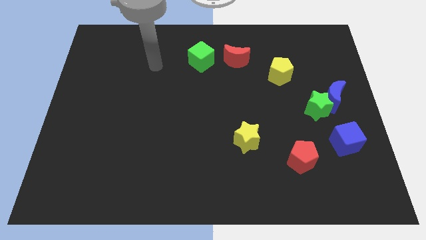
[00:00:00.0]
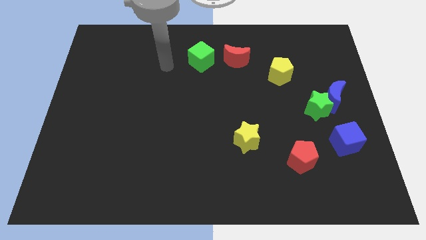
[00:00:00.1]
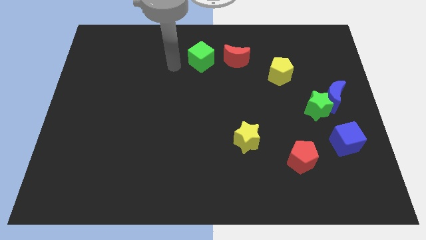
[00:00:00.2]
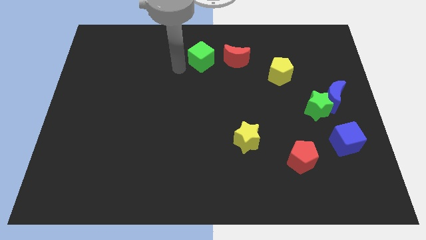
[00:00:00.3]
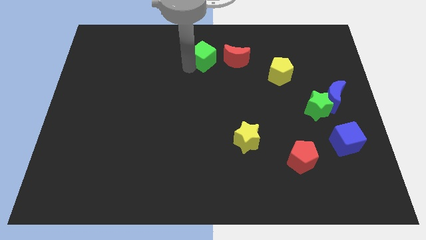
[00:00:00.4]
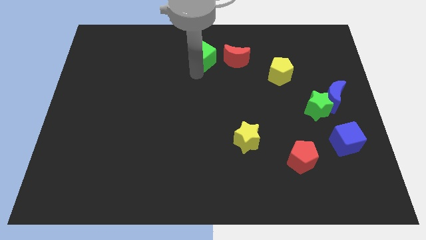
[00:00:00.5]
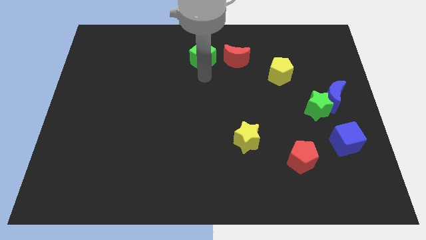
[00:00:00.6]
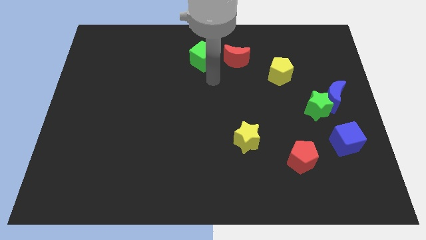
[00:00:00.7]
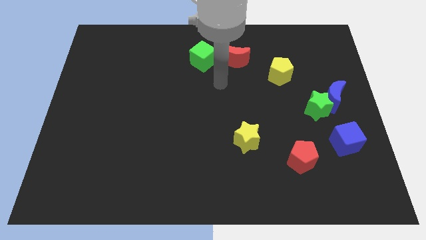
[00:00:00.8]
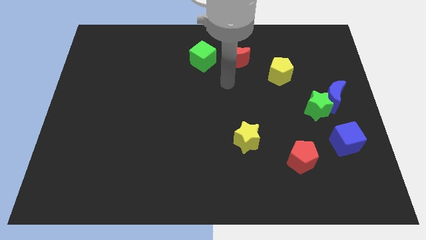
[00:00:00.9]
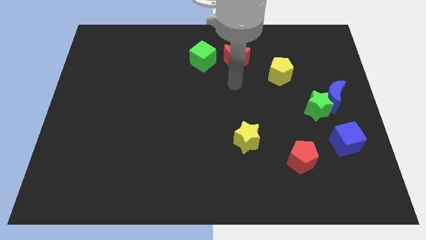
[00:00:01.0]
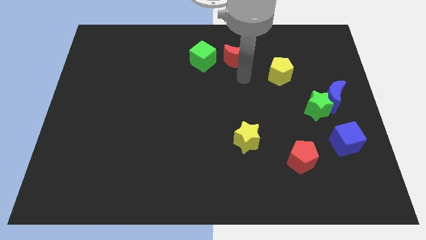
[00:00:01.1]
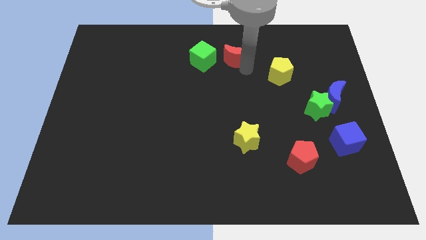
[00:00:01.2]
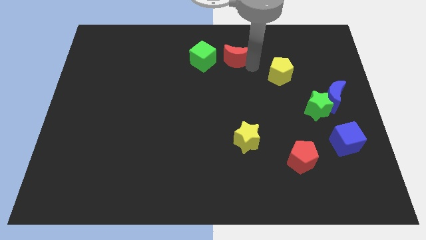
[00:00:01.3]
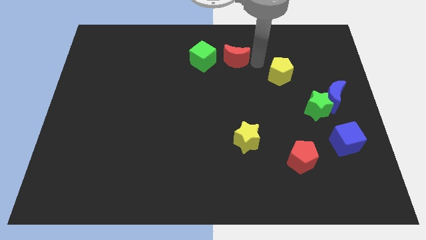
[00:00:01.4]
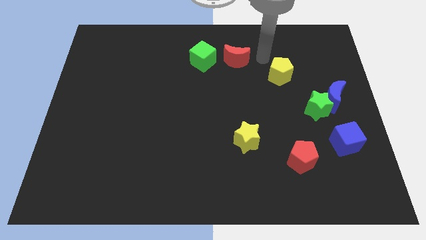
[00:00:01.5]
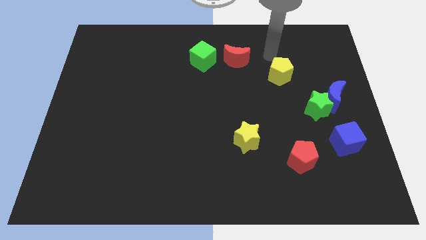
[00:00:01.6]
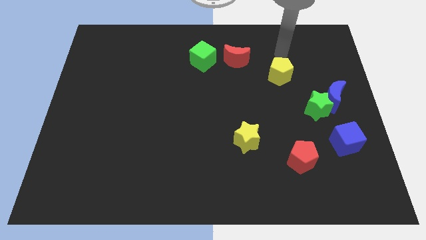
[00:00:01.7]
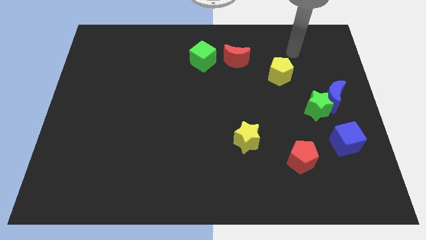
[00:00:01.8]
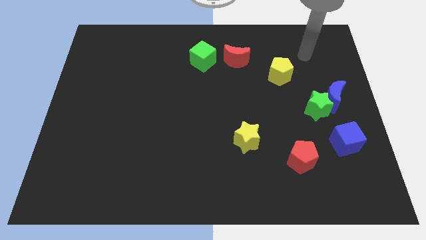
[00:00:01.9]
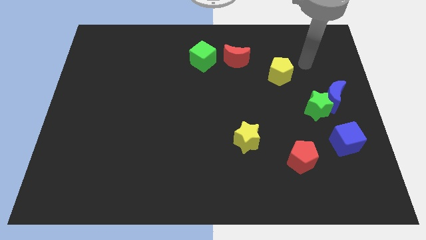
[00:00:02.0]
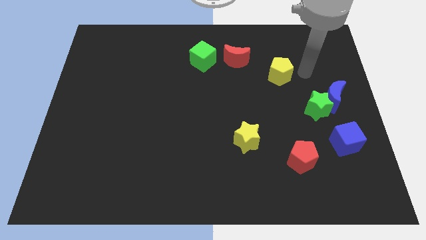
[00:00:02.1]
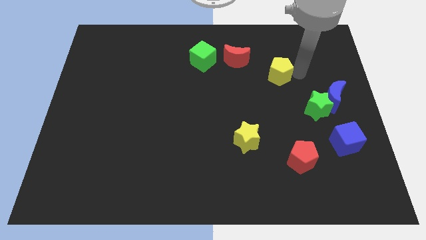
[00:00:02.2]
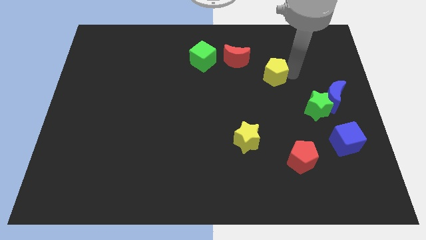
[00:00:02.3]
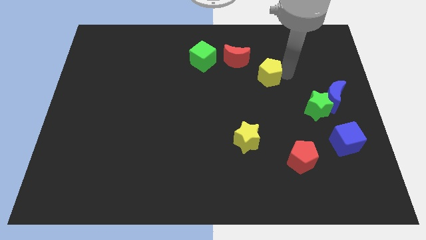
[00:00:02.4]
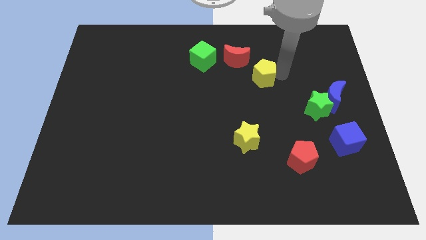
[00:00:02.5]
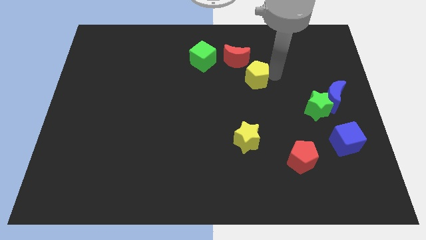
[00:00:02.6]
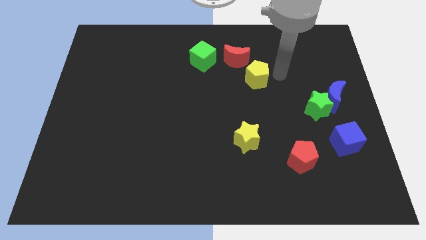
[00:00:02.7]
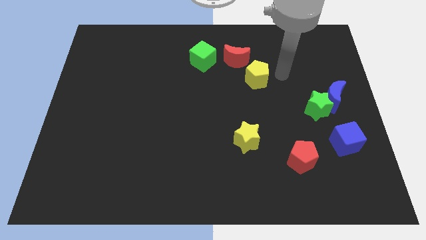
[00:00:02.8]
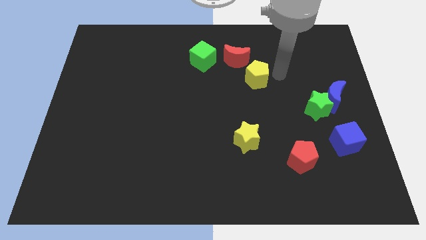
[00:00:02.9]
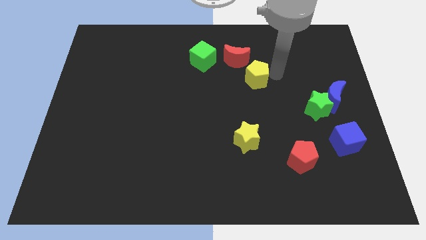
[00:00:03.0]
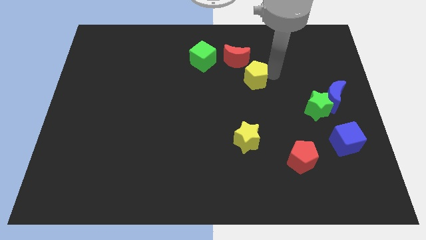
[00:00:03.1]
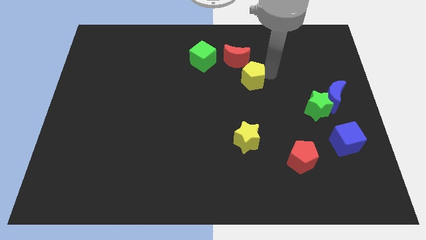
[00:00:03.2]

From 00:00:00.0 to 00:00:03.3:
move the yellow pentagon slightly left

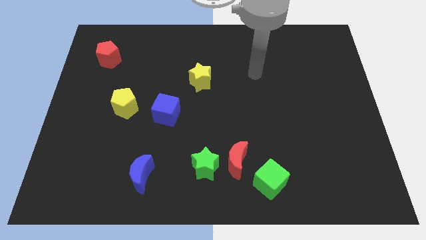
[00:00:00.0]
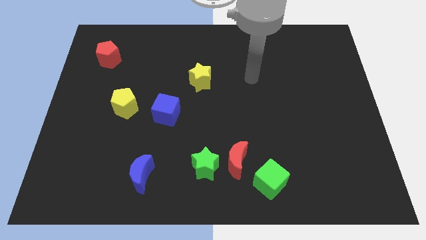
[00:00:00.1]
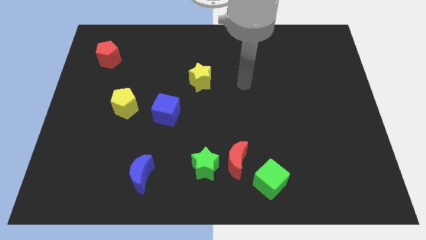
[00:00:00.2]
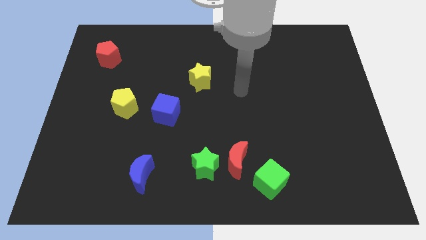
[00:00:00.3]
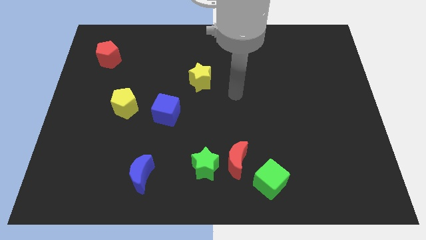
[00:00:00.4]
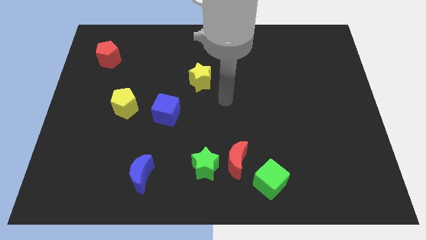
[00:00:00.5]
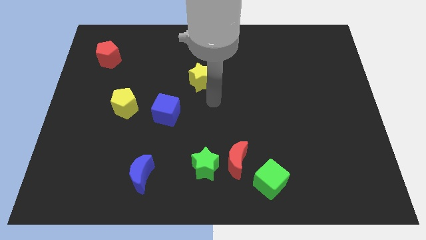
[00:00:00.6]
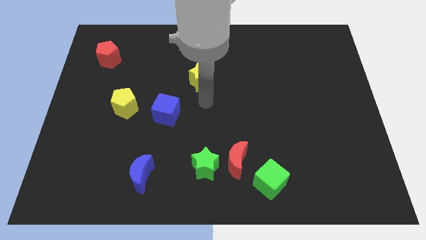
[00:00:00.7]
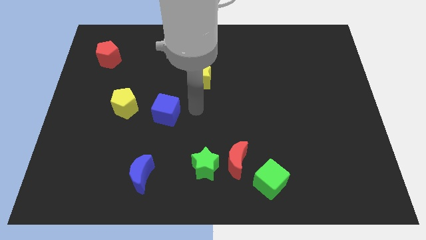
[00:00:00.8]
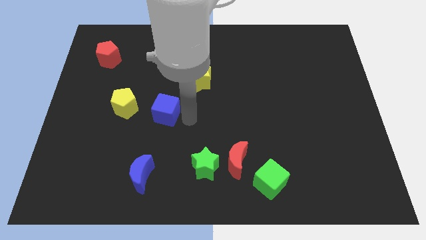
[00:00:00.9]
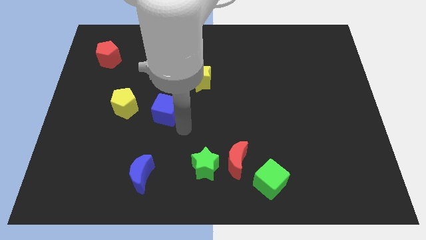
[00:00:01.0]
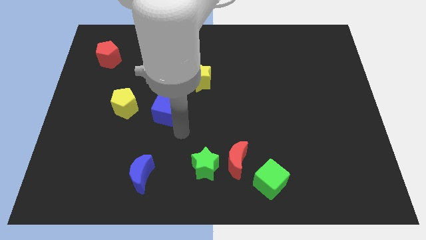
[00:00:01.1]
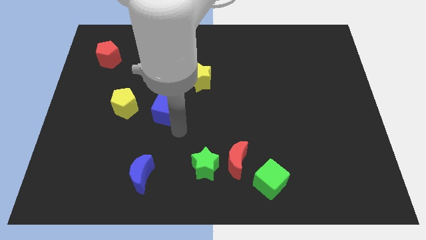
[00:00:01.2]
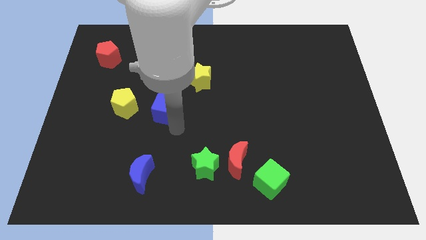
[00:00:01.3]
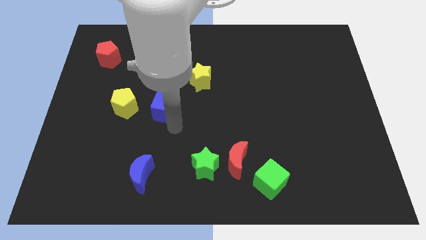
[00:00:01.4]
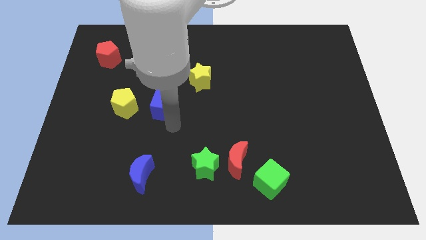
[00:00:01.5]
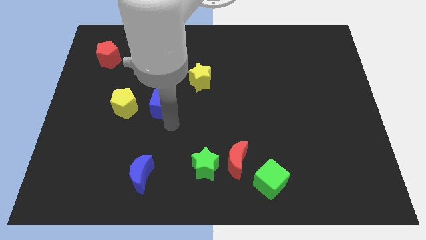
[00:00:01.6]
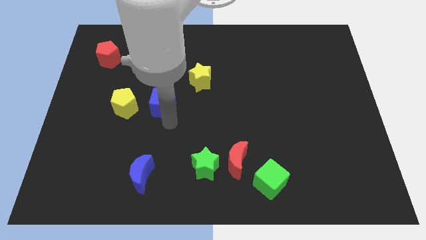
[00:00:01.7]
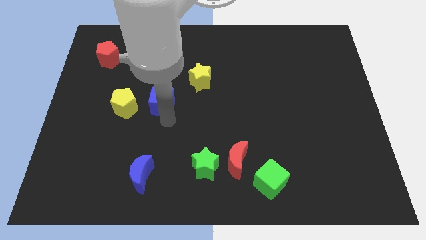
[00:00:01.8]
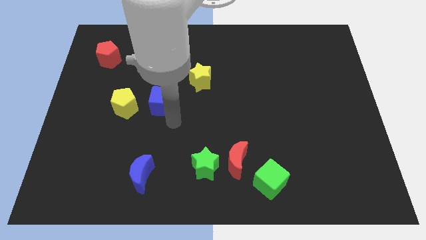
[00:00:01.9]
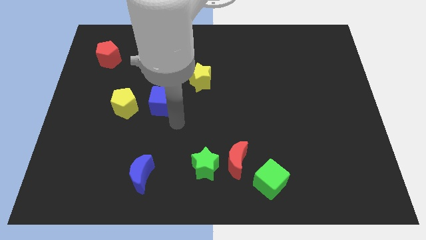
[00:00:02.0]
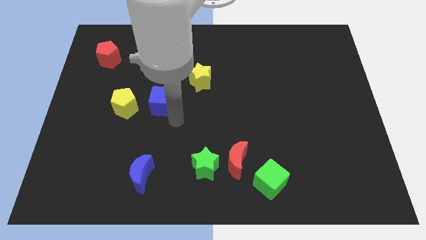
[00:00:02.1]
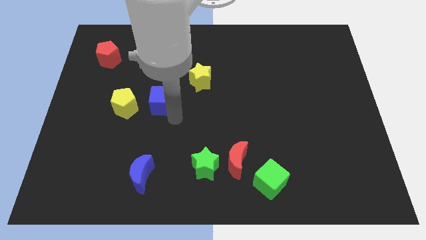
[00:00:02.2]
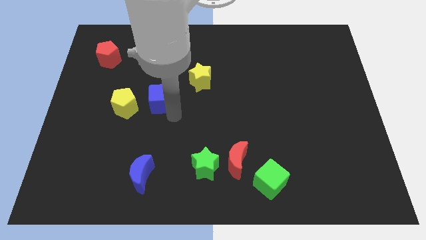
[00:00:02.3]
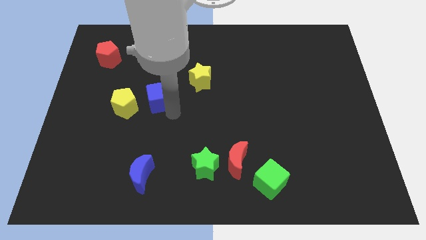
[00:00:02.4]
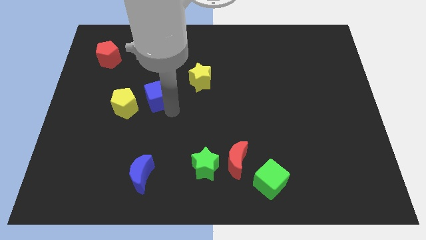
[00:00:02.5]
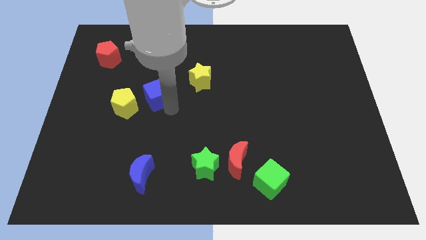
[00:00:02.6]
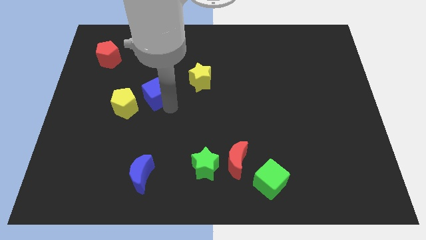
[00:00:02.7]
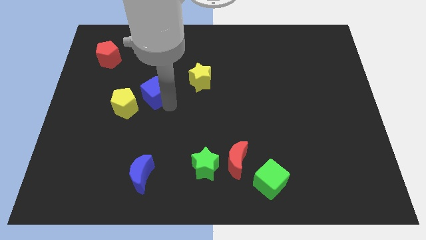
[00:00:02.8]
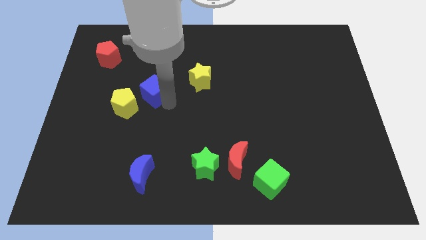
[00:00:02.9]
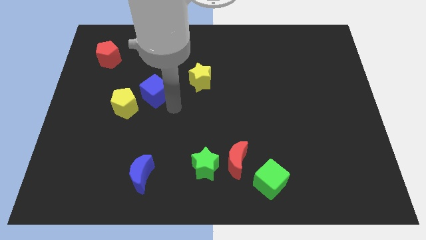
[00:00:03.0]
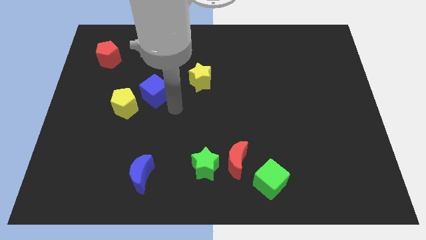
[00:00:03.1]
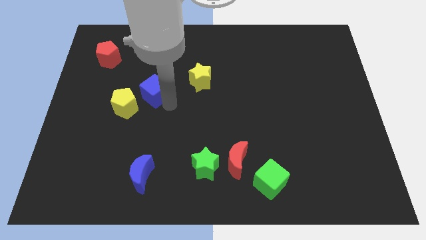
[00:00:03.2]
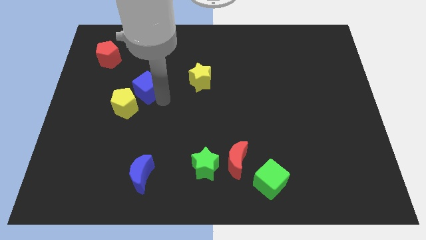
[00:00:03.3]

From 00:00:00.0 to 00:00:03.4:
slightly slide the blue cube upwards and then left

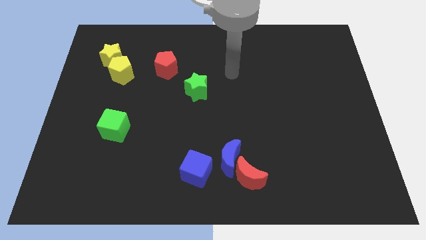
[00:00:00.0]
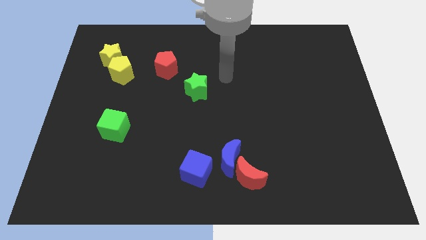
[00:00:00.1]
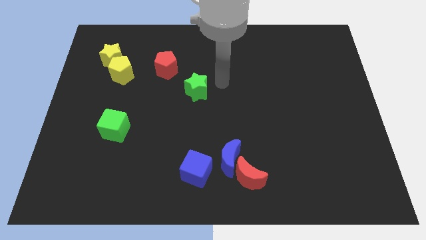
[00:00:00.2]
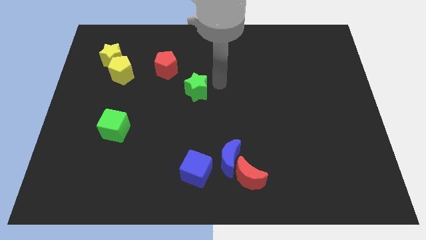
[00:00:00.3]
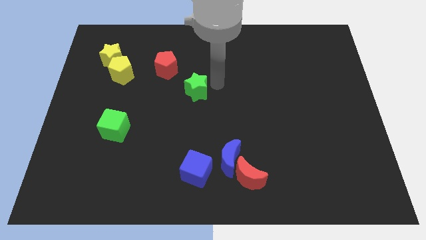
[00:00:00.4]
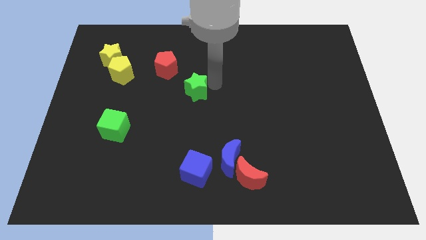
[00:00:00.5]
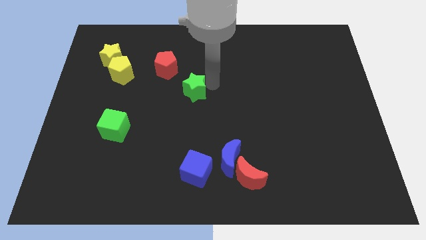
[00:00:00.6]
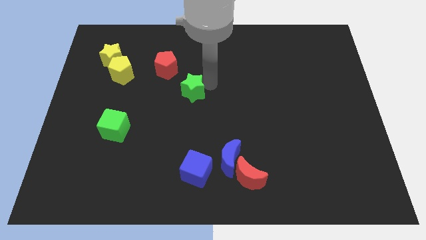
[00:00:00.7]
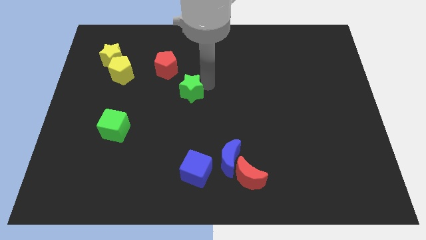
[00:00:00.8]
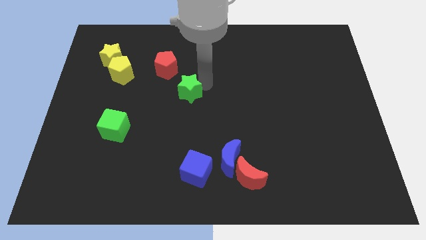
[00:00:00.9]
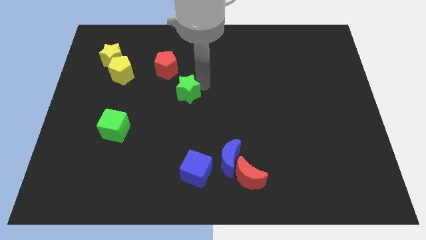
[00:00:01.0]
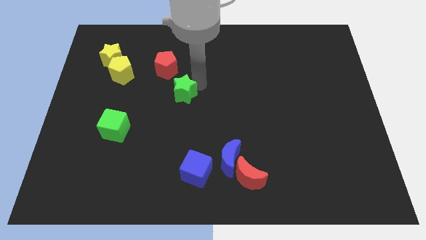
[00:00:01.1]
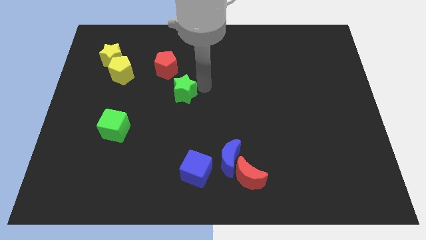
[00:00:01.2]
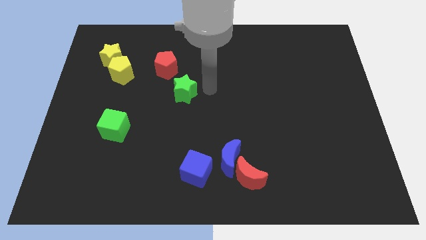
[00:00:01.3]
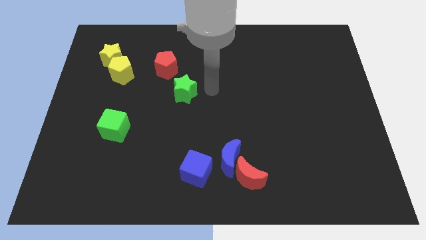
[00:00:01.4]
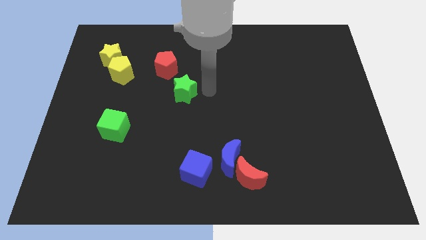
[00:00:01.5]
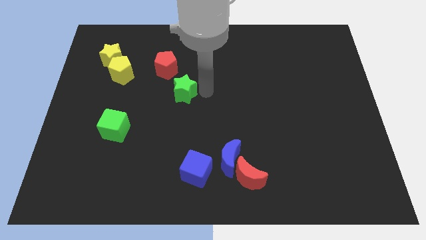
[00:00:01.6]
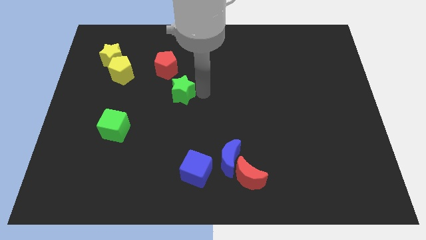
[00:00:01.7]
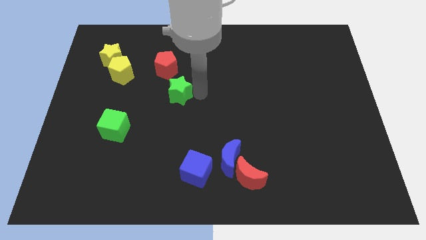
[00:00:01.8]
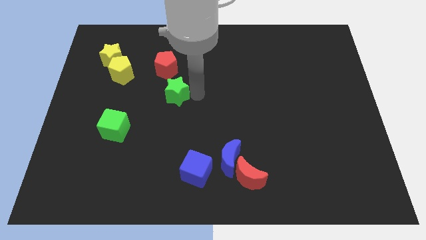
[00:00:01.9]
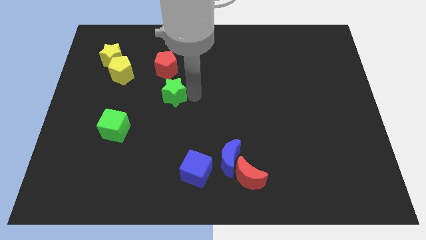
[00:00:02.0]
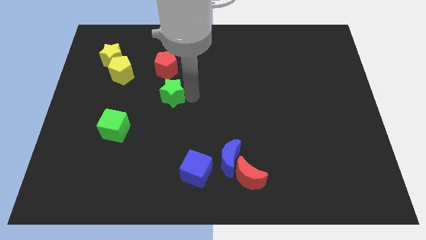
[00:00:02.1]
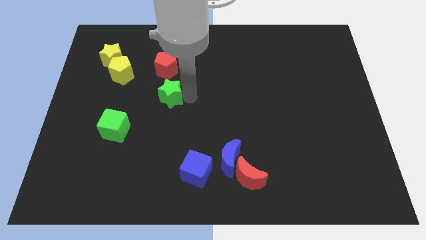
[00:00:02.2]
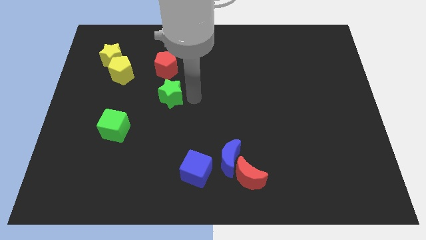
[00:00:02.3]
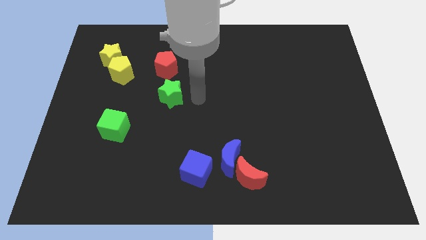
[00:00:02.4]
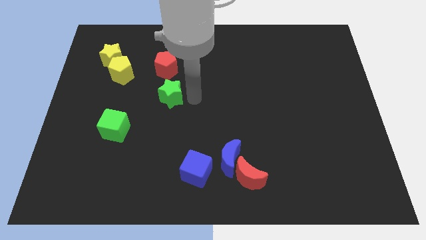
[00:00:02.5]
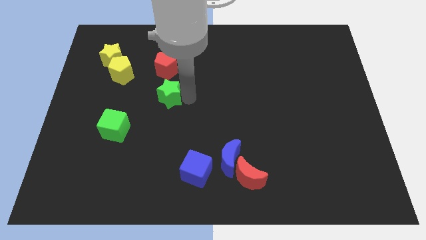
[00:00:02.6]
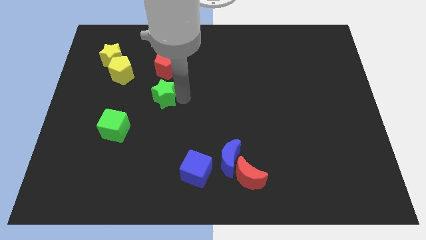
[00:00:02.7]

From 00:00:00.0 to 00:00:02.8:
slide the green star somewhat to the left
